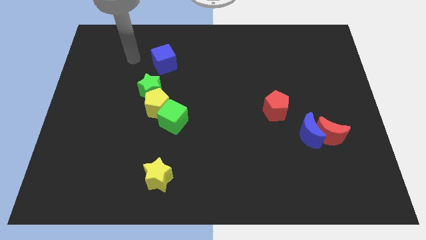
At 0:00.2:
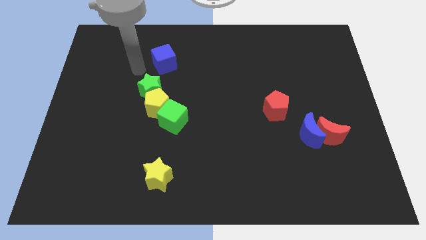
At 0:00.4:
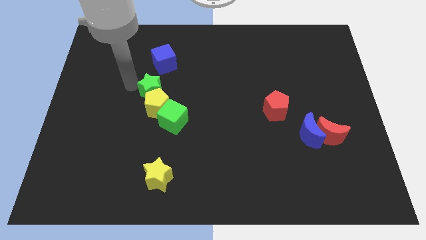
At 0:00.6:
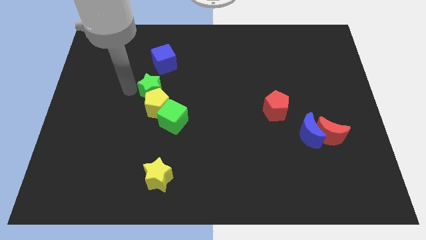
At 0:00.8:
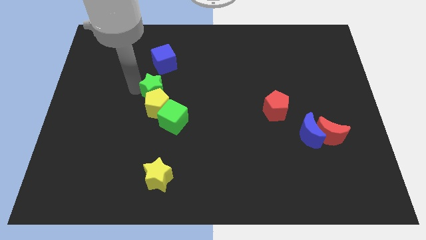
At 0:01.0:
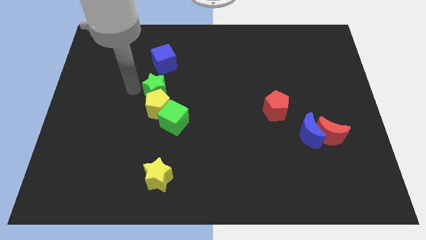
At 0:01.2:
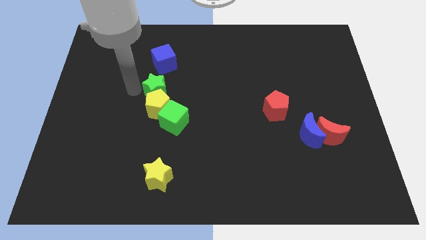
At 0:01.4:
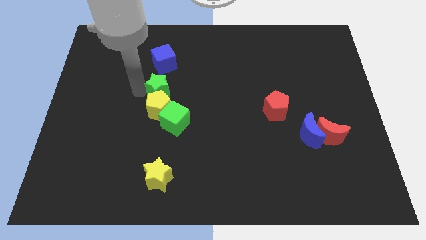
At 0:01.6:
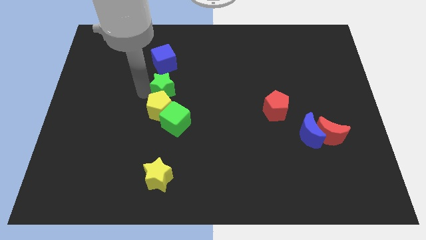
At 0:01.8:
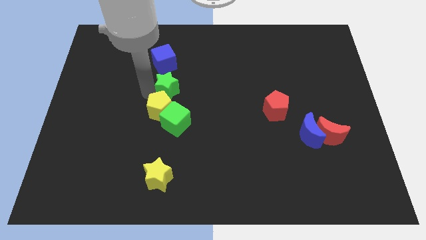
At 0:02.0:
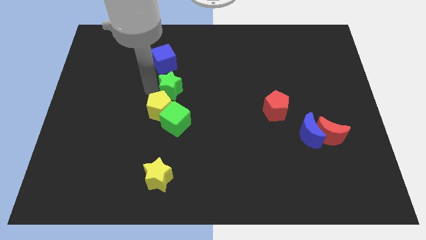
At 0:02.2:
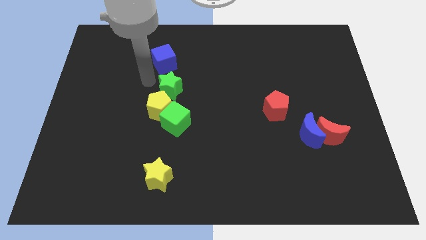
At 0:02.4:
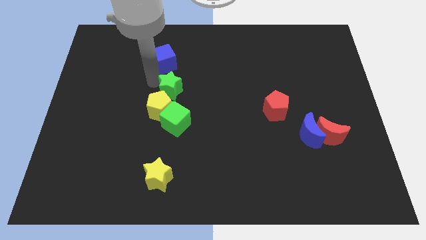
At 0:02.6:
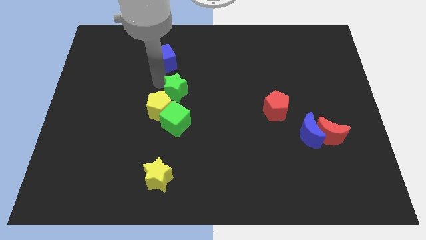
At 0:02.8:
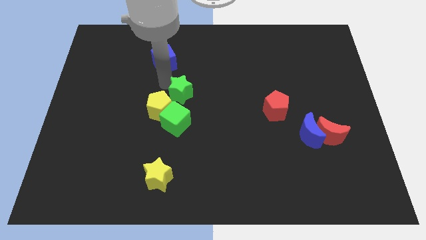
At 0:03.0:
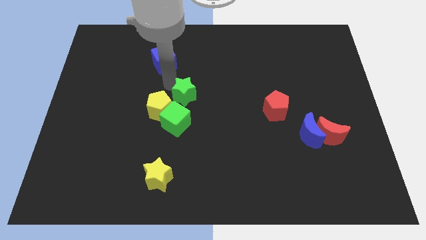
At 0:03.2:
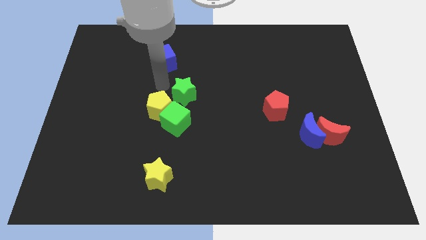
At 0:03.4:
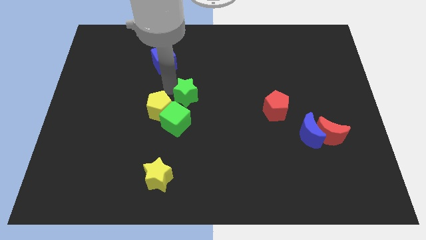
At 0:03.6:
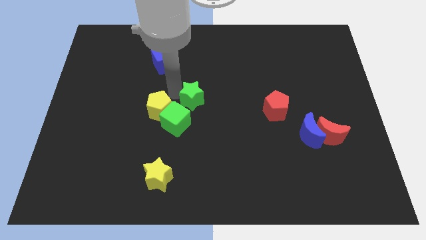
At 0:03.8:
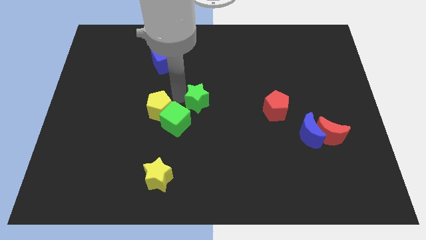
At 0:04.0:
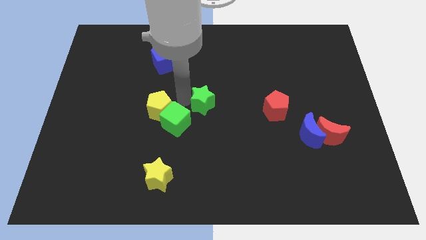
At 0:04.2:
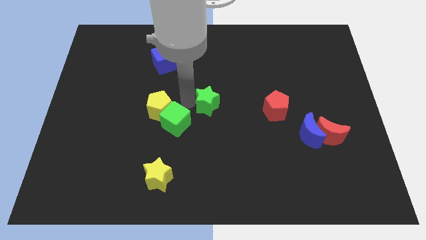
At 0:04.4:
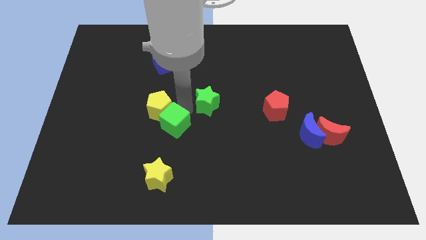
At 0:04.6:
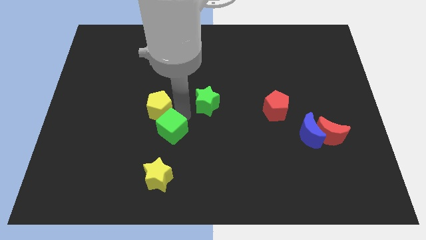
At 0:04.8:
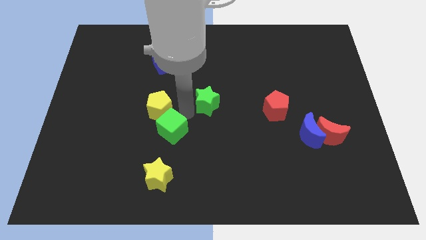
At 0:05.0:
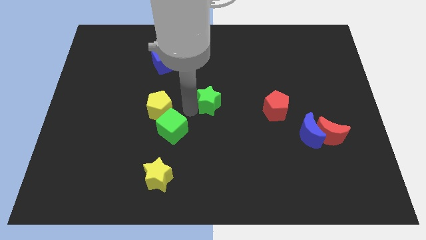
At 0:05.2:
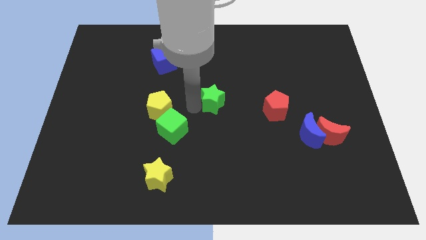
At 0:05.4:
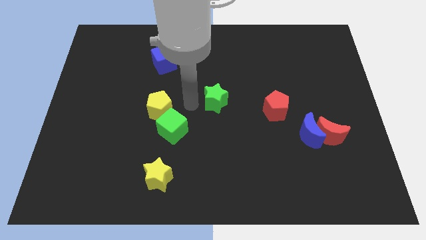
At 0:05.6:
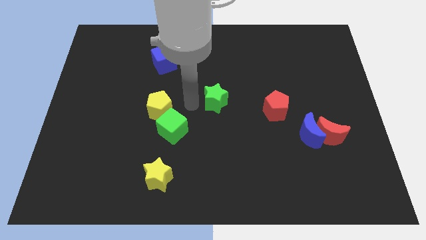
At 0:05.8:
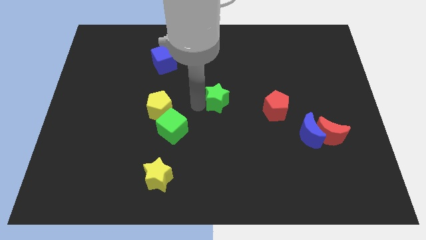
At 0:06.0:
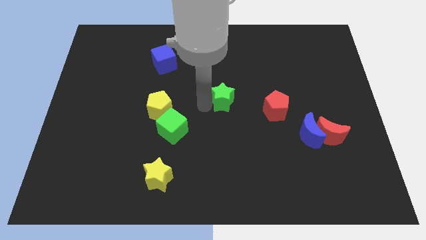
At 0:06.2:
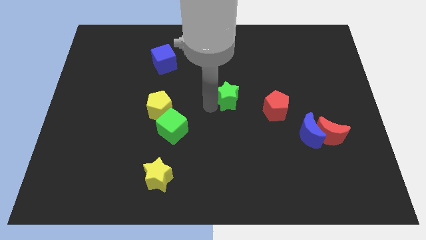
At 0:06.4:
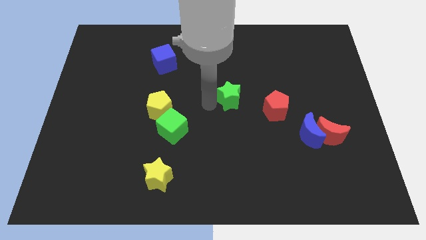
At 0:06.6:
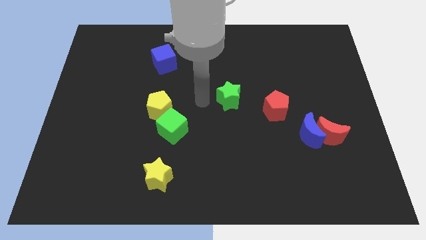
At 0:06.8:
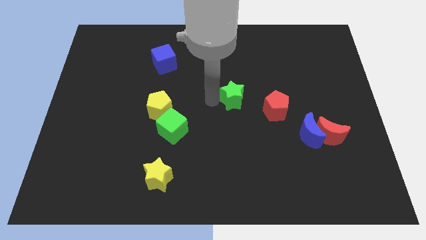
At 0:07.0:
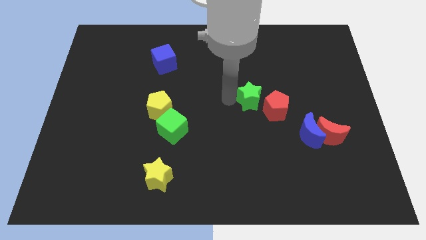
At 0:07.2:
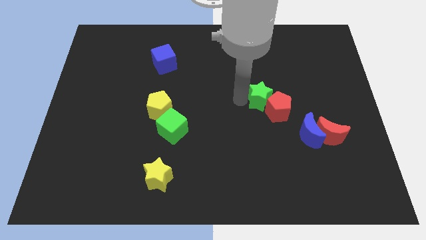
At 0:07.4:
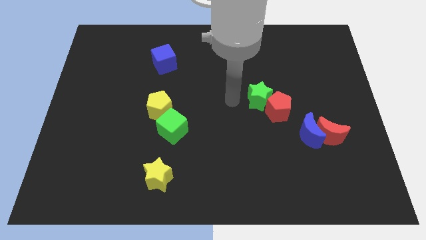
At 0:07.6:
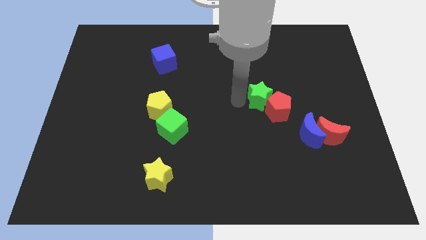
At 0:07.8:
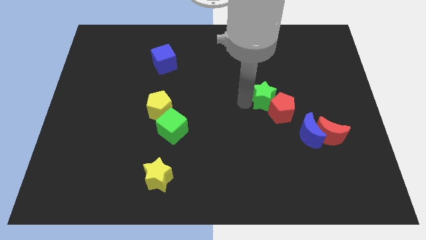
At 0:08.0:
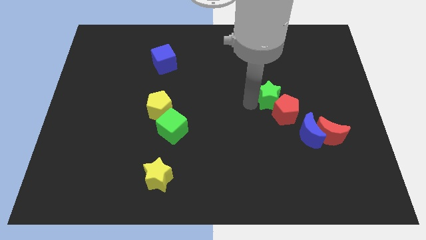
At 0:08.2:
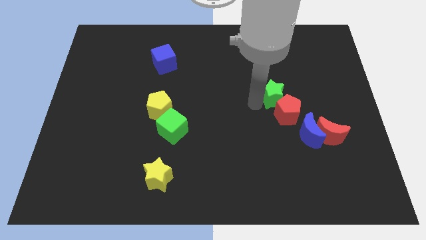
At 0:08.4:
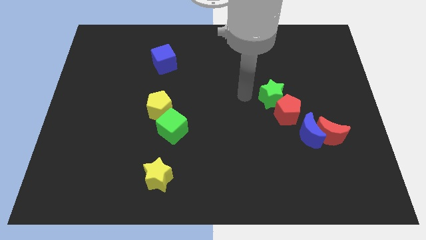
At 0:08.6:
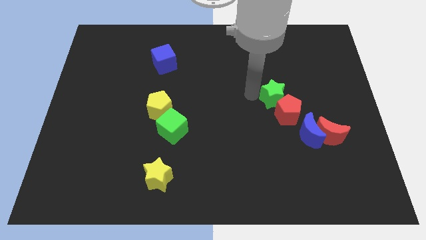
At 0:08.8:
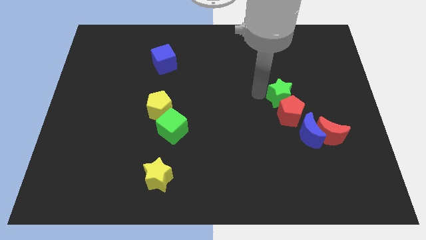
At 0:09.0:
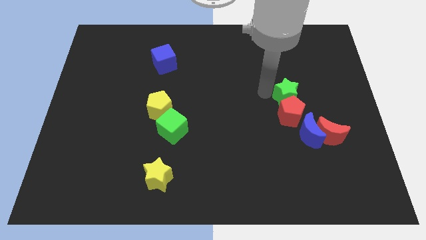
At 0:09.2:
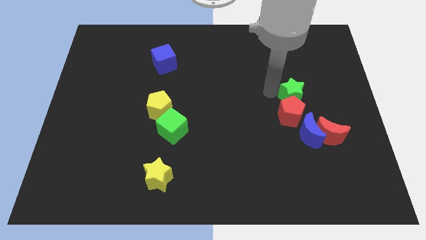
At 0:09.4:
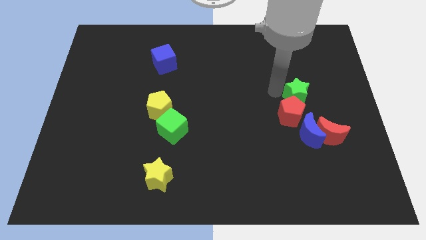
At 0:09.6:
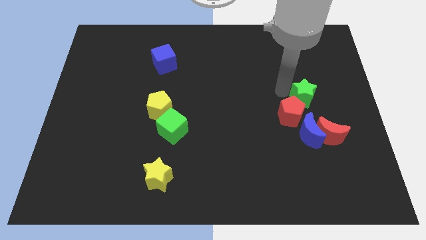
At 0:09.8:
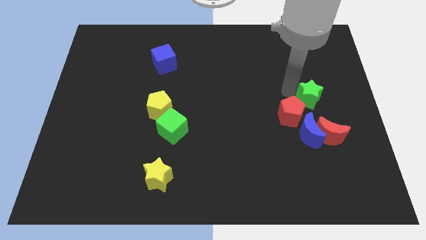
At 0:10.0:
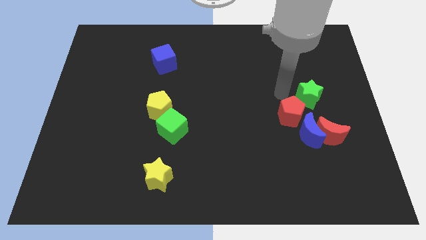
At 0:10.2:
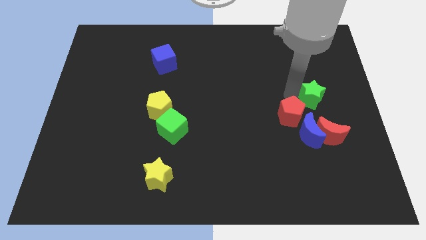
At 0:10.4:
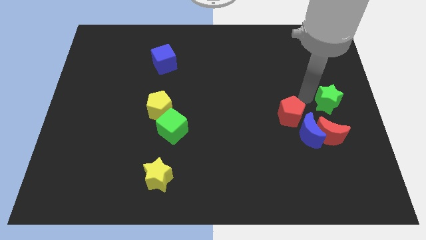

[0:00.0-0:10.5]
slide the green star to the right side of the board

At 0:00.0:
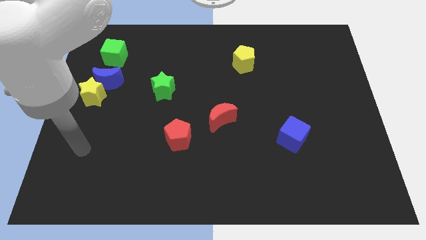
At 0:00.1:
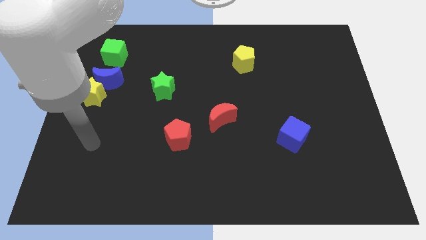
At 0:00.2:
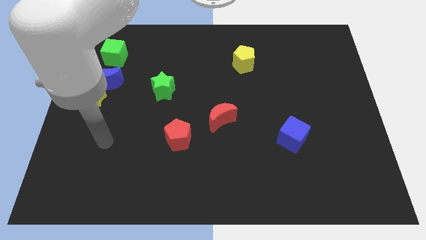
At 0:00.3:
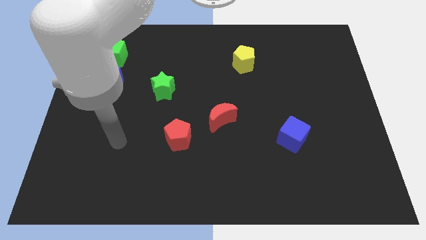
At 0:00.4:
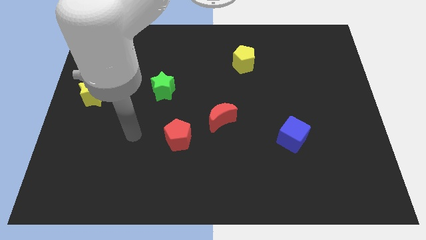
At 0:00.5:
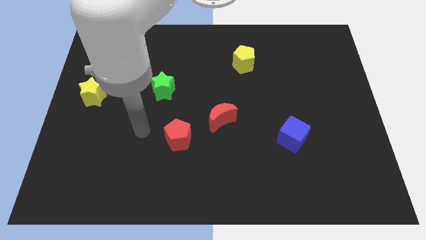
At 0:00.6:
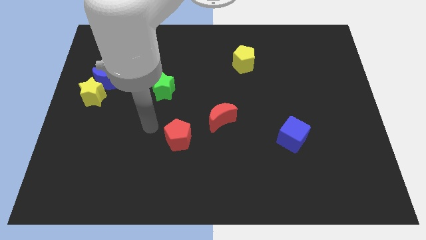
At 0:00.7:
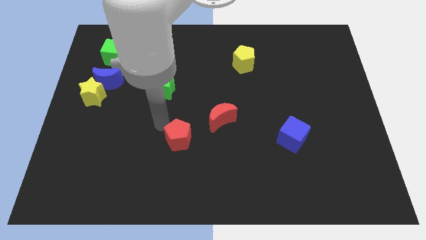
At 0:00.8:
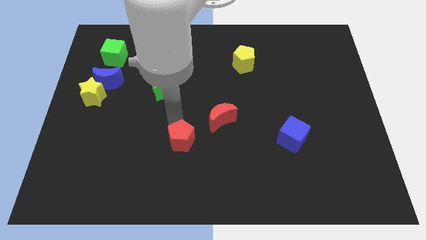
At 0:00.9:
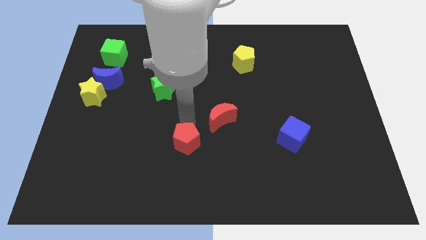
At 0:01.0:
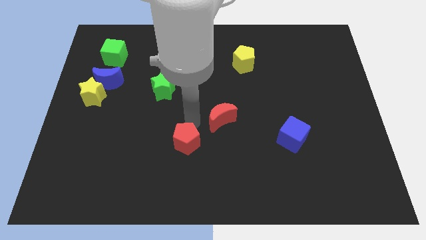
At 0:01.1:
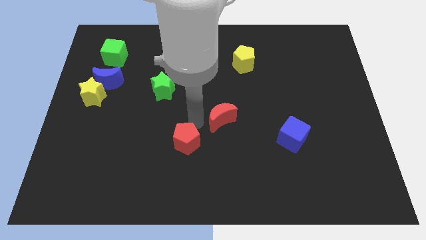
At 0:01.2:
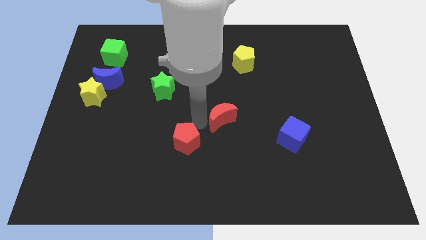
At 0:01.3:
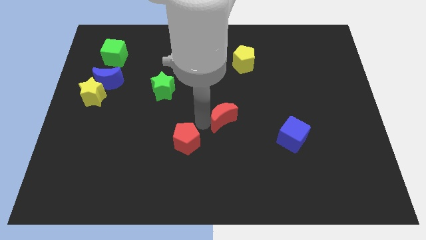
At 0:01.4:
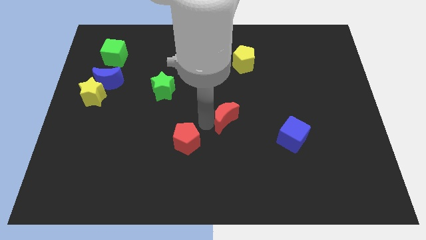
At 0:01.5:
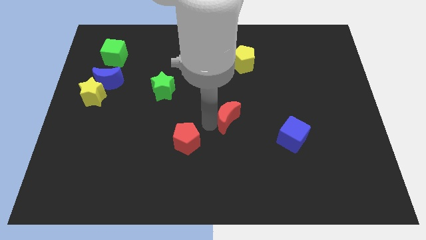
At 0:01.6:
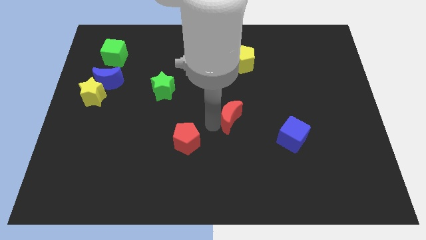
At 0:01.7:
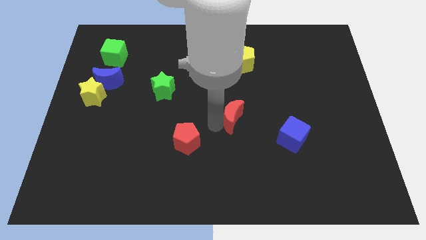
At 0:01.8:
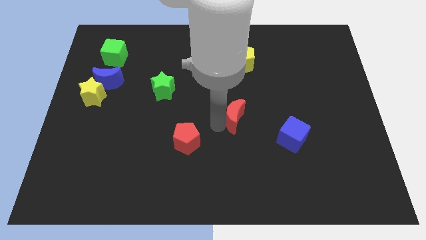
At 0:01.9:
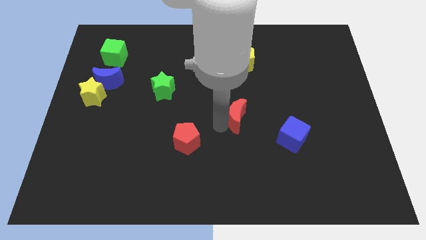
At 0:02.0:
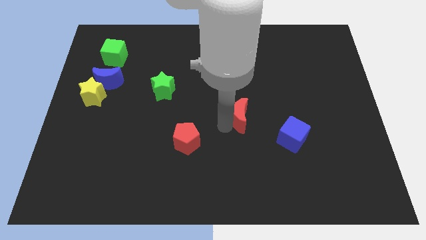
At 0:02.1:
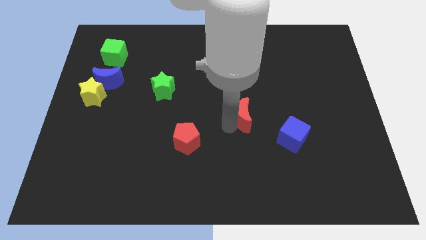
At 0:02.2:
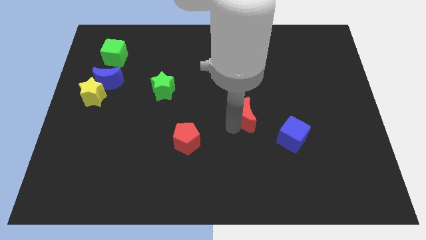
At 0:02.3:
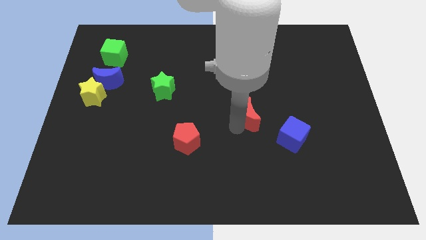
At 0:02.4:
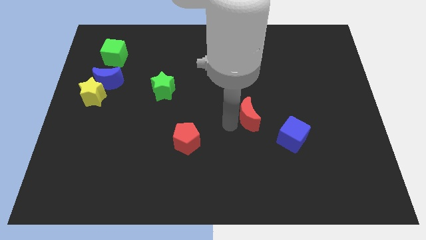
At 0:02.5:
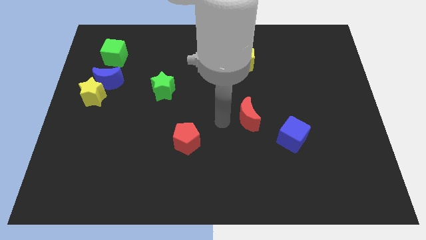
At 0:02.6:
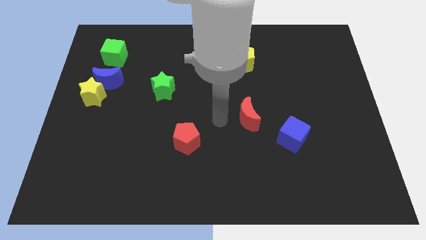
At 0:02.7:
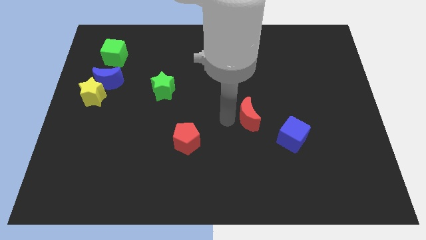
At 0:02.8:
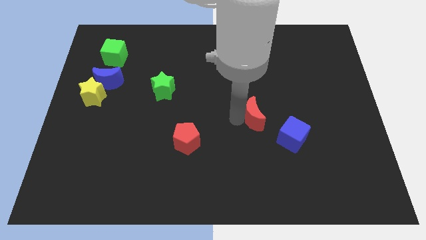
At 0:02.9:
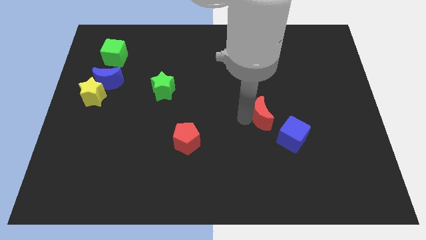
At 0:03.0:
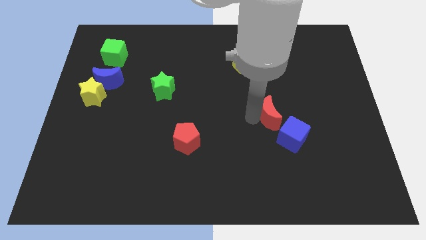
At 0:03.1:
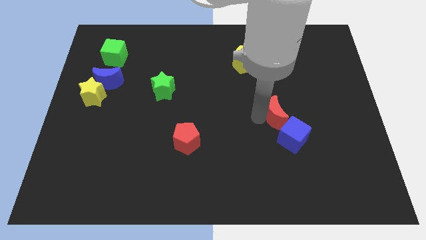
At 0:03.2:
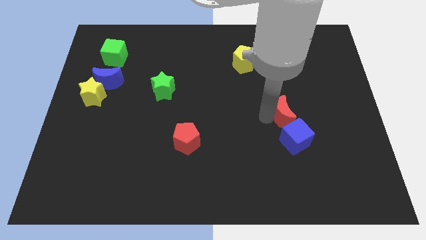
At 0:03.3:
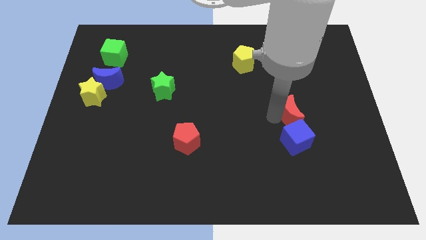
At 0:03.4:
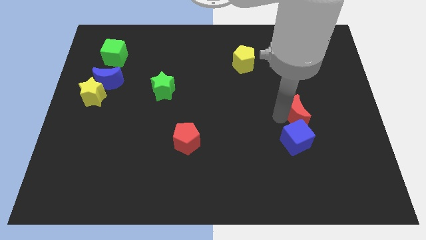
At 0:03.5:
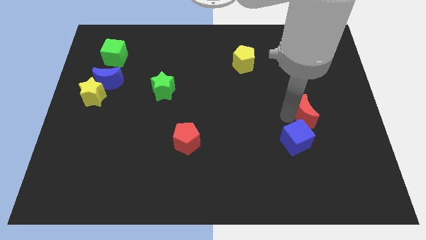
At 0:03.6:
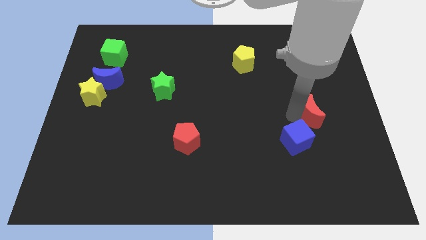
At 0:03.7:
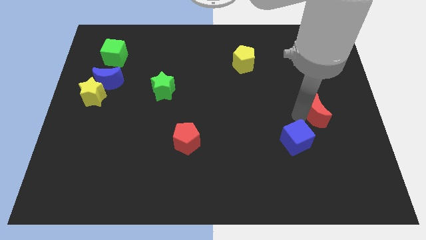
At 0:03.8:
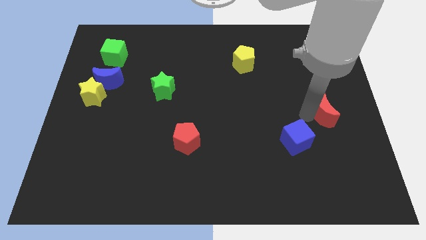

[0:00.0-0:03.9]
put the red moon to the right side of the board
